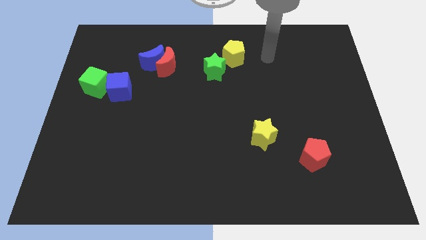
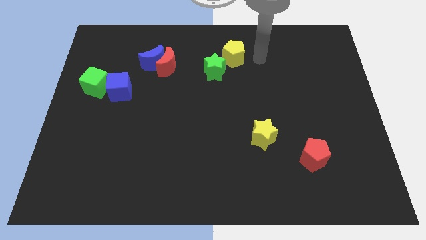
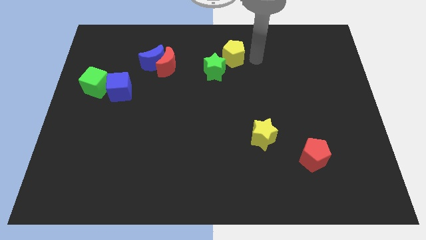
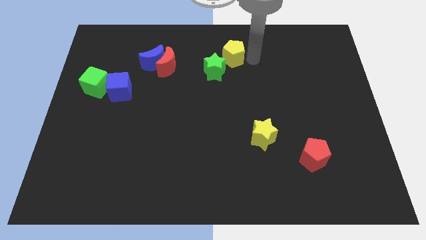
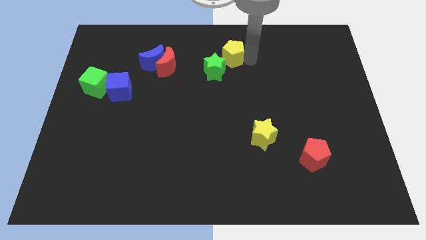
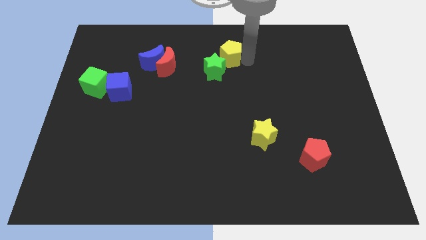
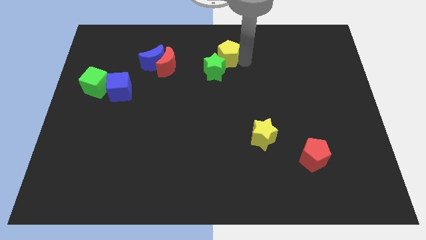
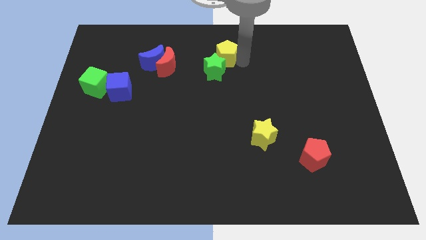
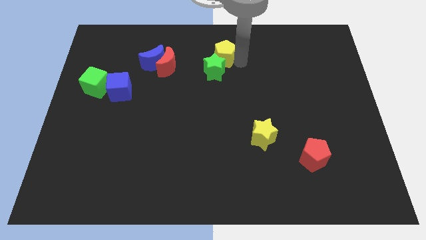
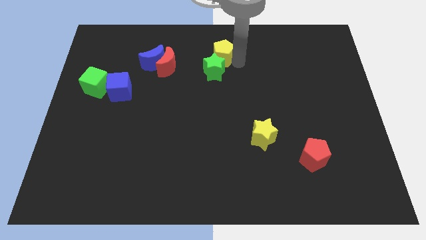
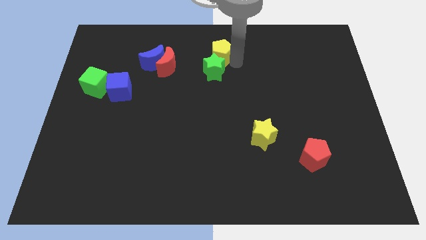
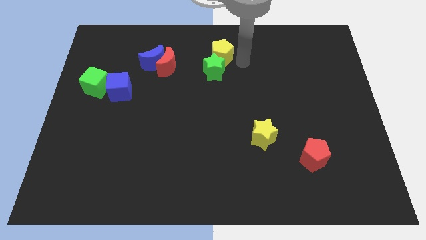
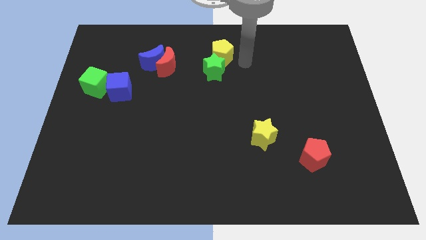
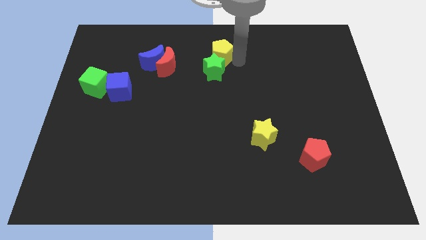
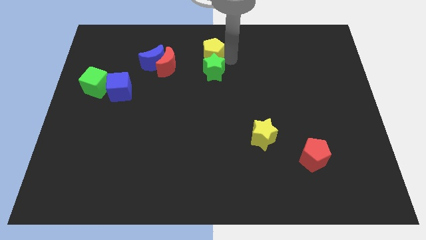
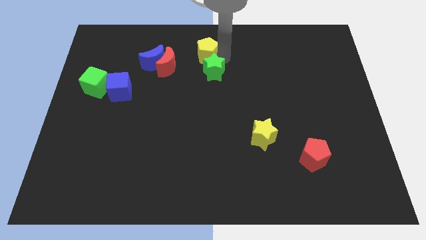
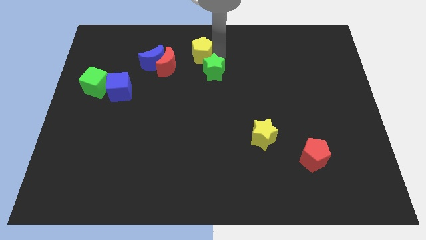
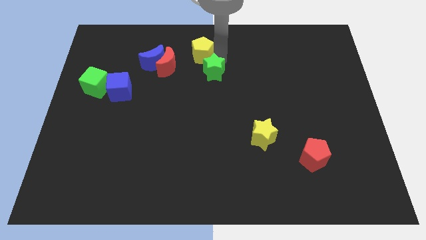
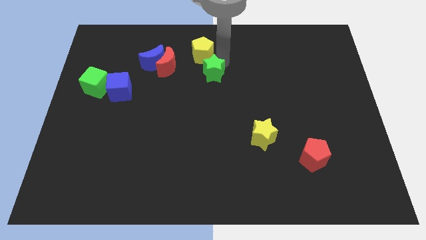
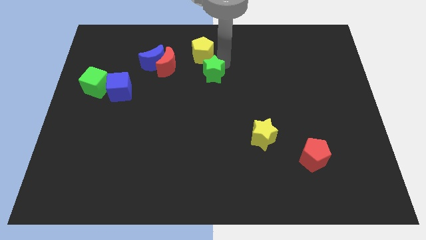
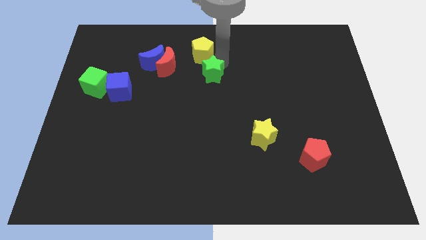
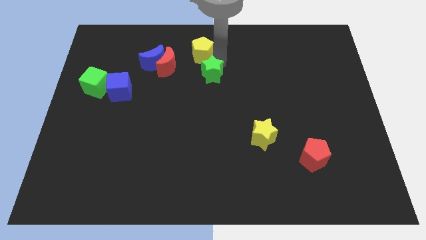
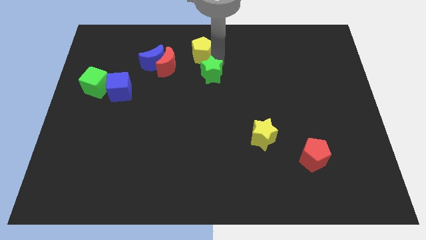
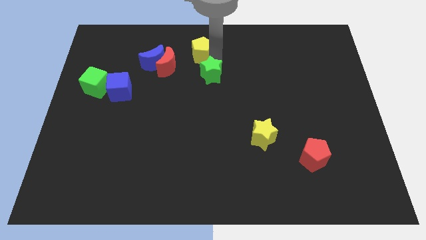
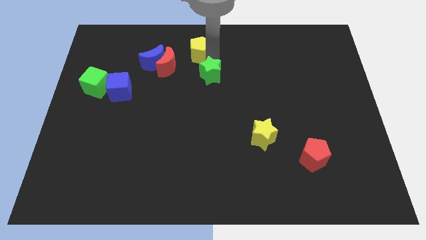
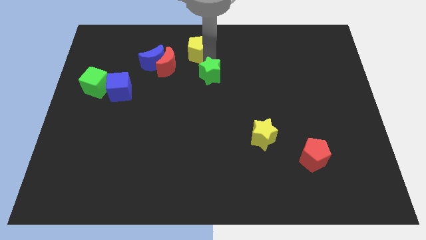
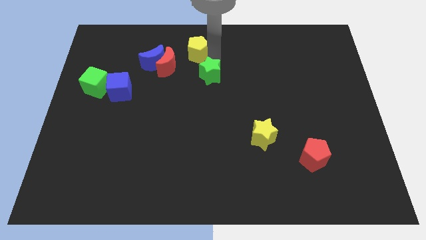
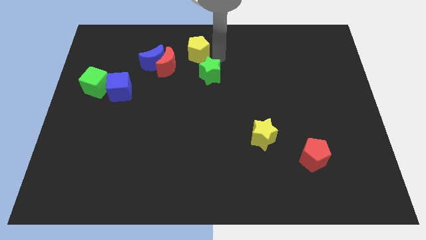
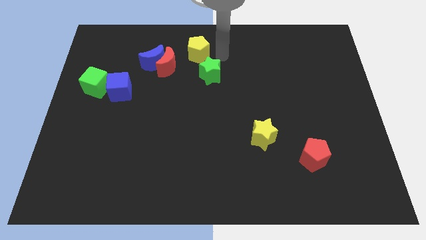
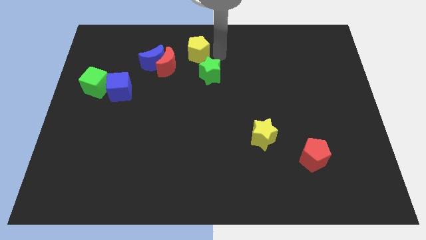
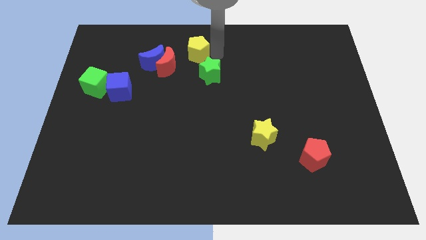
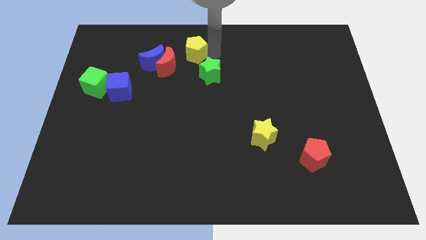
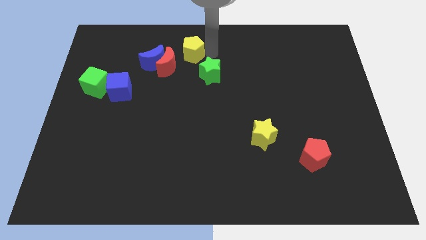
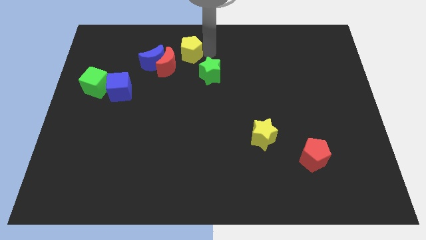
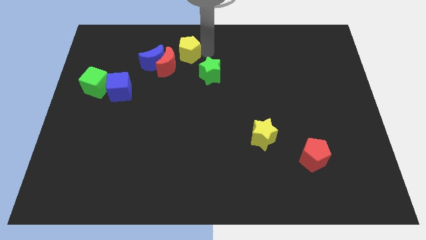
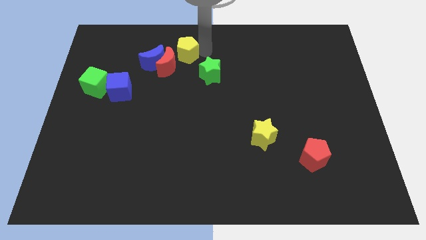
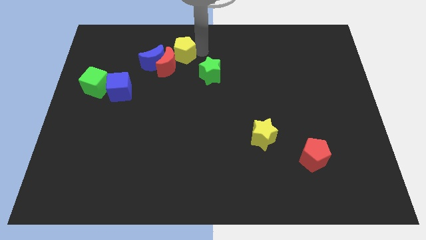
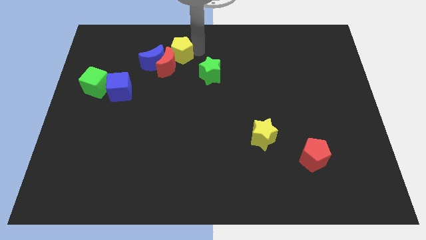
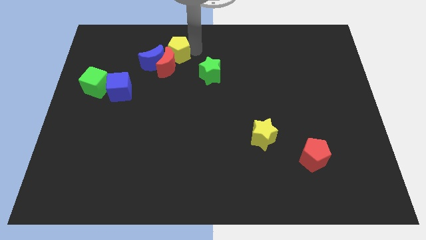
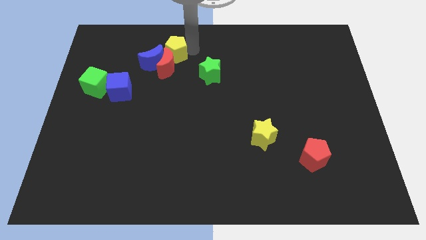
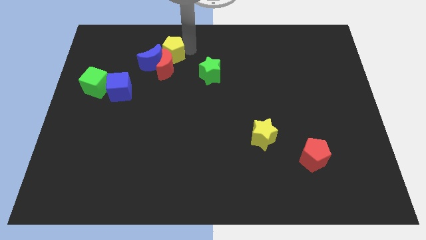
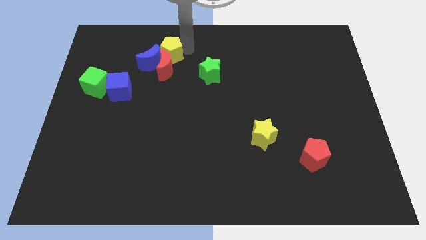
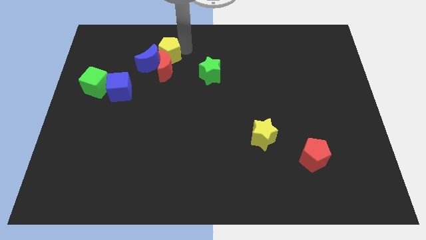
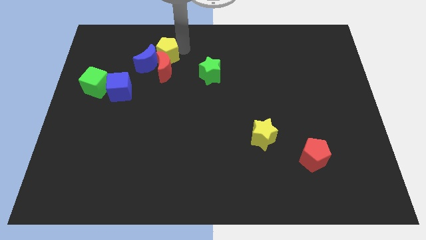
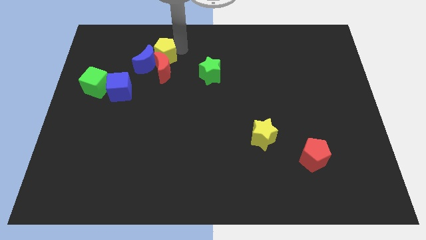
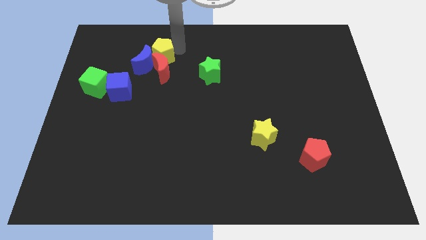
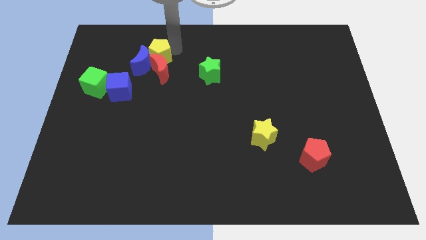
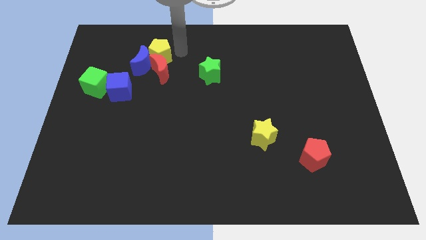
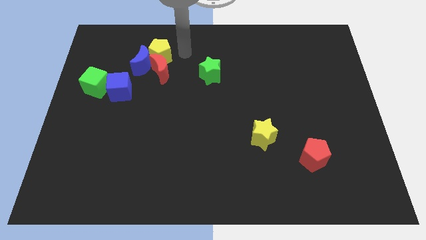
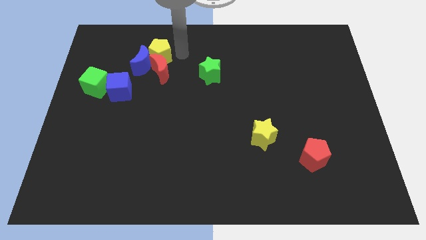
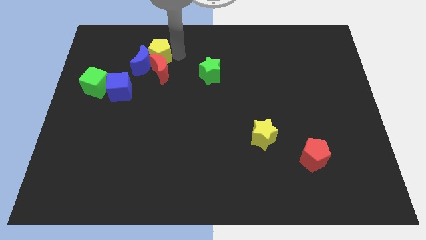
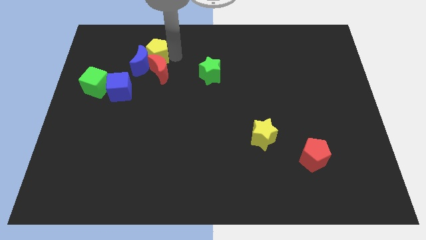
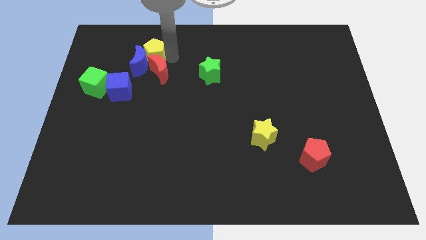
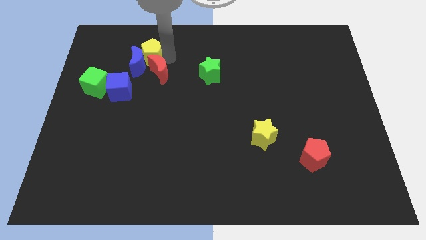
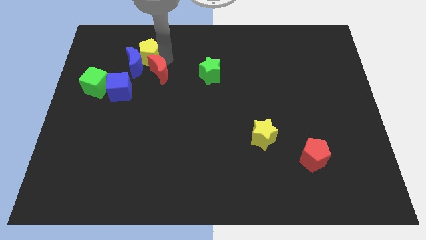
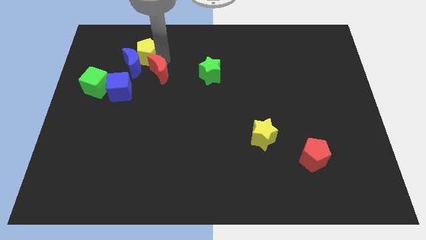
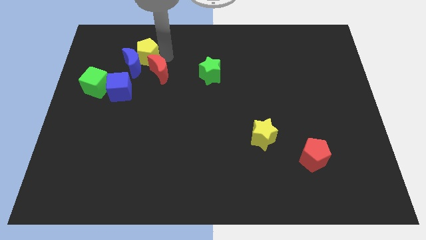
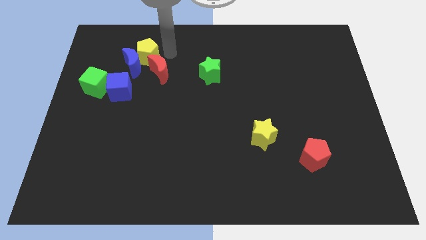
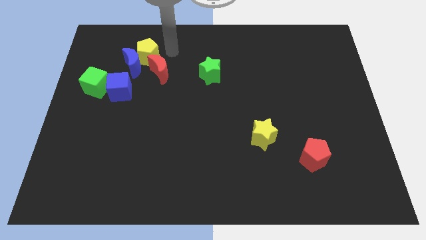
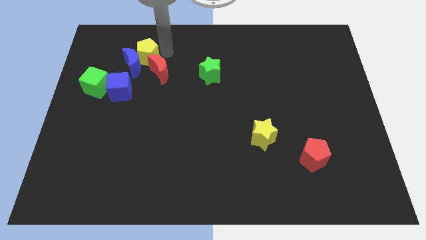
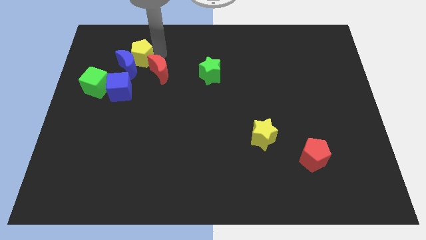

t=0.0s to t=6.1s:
push the yellow pentagon to the top of the blue cube
